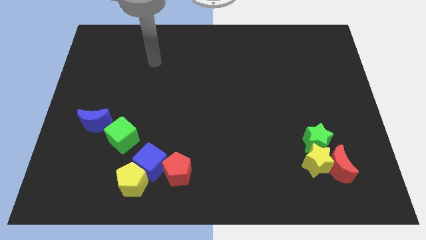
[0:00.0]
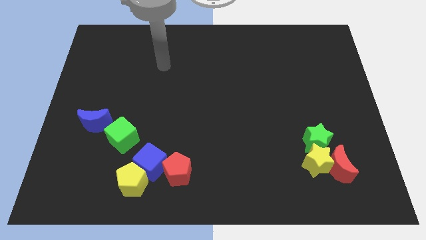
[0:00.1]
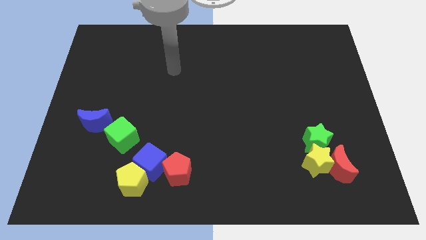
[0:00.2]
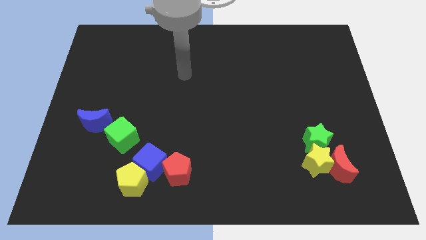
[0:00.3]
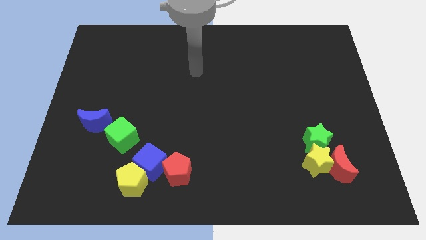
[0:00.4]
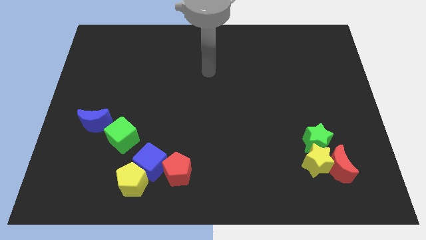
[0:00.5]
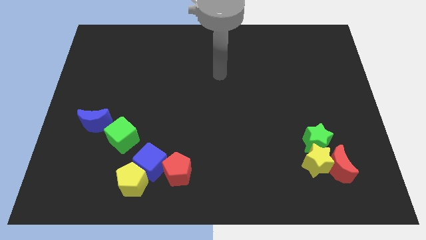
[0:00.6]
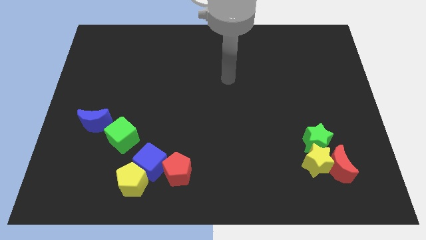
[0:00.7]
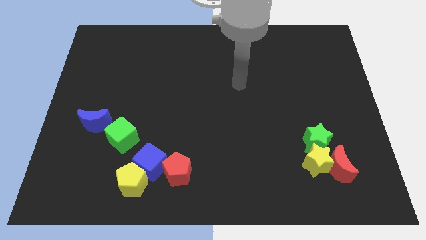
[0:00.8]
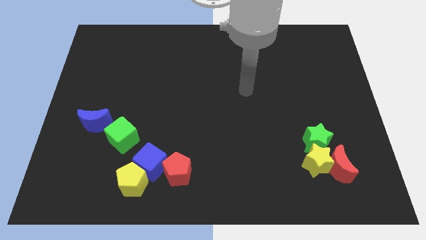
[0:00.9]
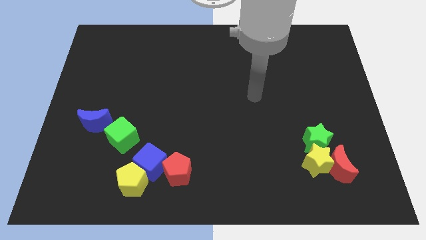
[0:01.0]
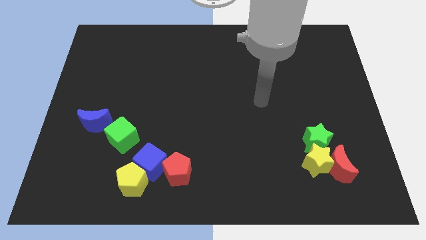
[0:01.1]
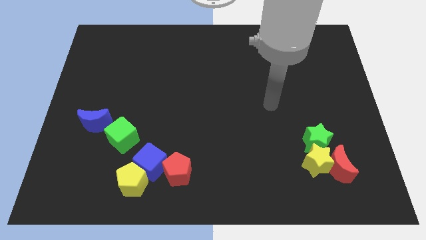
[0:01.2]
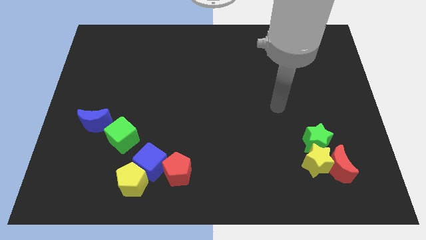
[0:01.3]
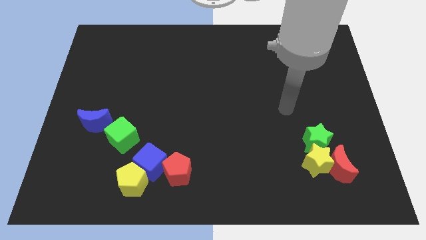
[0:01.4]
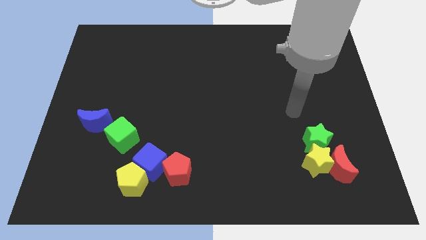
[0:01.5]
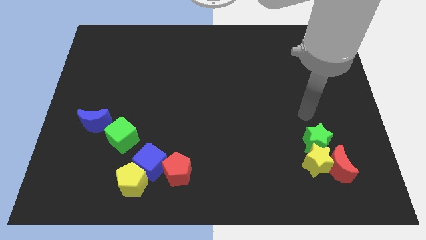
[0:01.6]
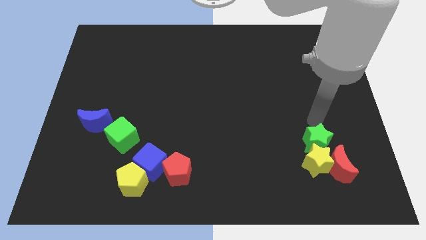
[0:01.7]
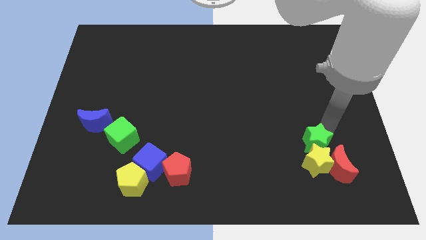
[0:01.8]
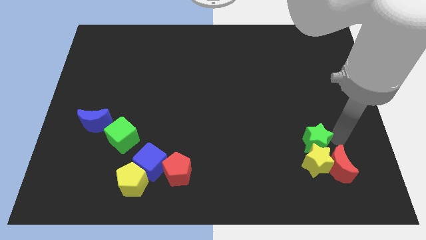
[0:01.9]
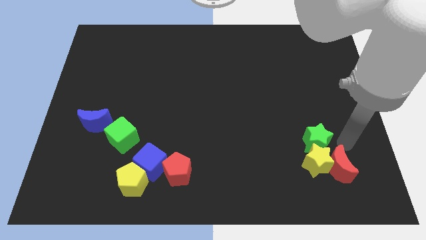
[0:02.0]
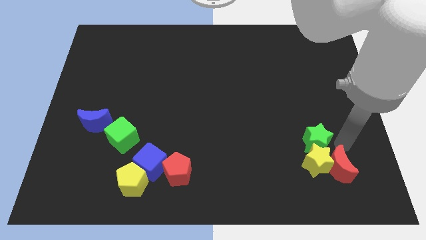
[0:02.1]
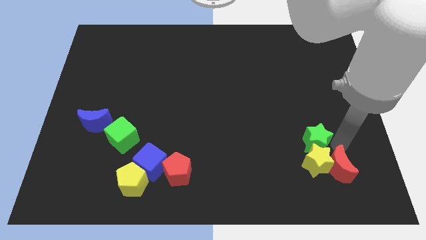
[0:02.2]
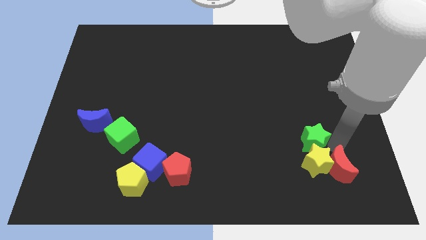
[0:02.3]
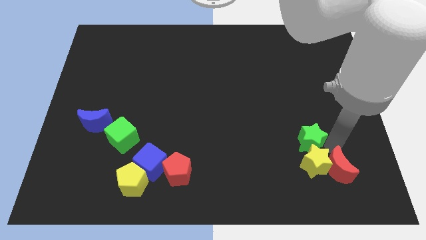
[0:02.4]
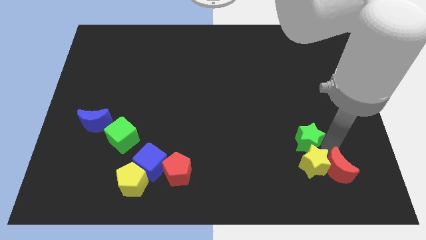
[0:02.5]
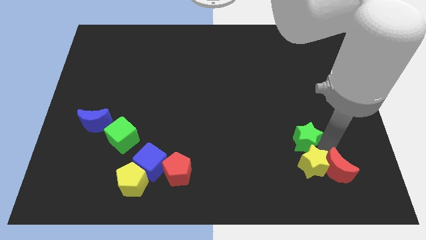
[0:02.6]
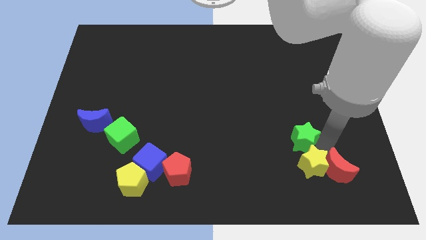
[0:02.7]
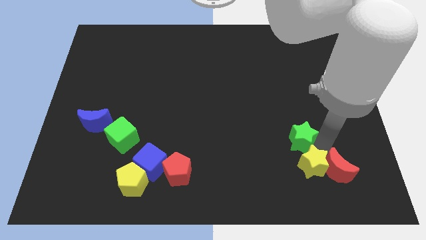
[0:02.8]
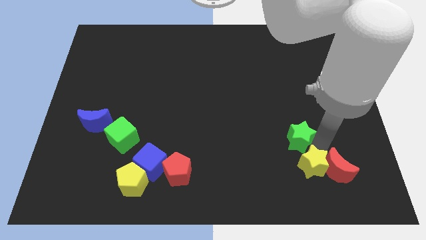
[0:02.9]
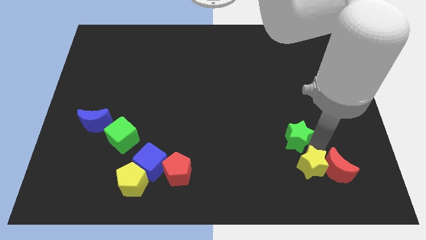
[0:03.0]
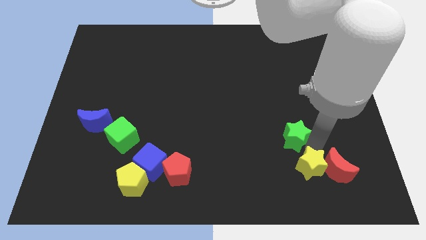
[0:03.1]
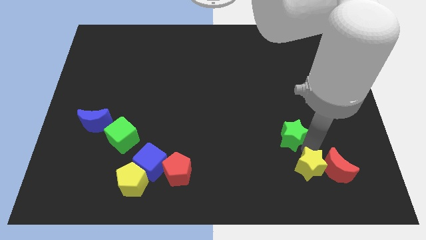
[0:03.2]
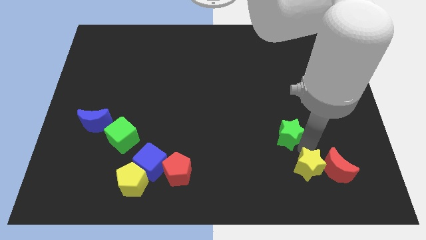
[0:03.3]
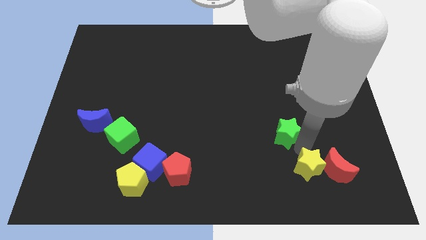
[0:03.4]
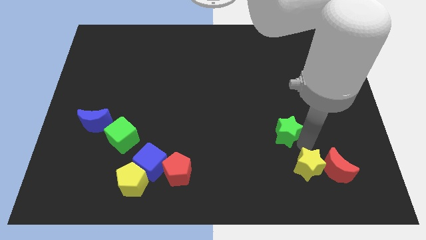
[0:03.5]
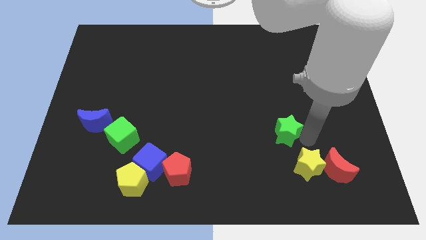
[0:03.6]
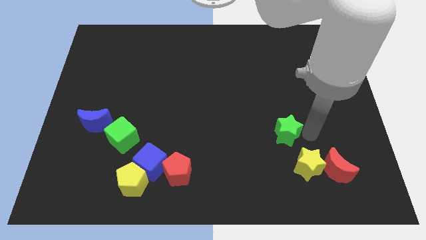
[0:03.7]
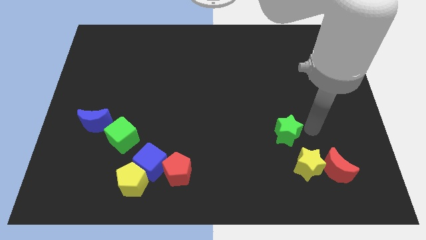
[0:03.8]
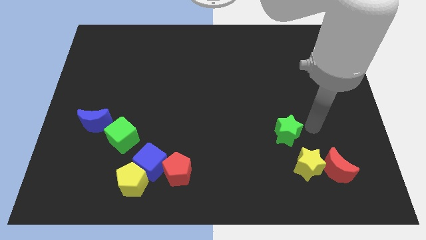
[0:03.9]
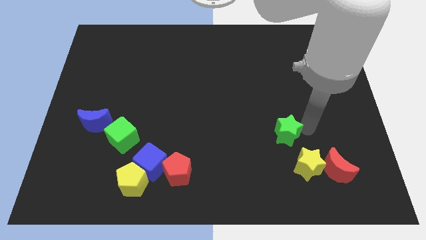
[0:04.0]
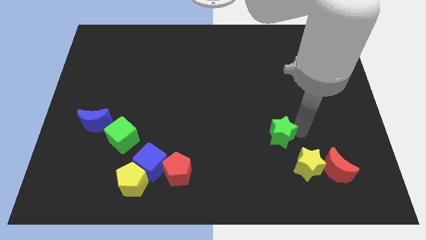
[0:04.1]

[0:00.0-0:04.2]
slightly move the green star left

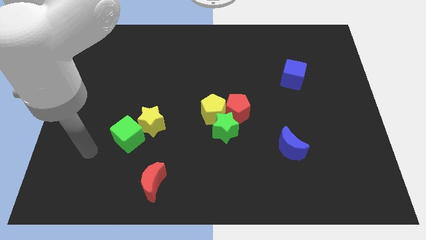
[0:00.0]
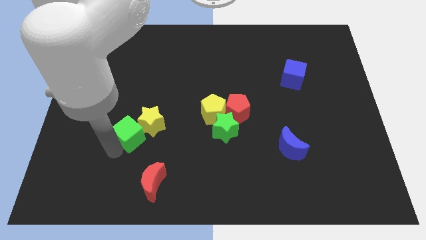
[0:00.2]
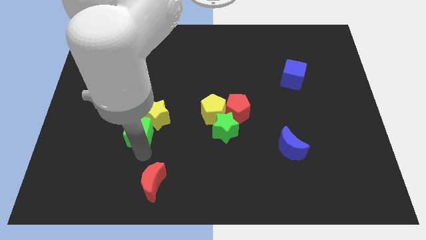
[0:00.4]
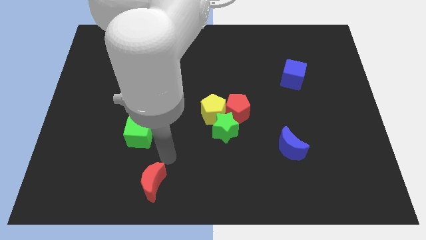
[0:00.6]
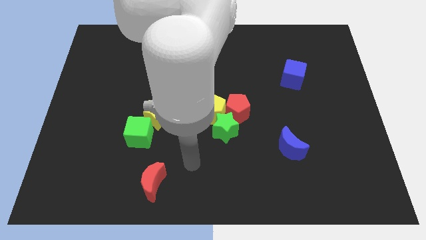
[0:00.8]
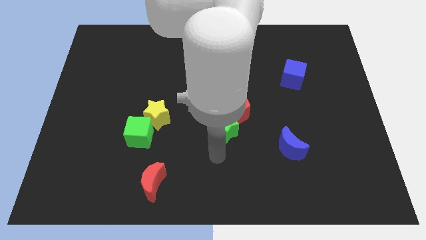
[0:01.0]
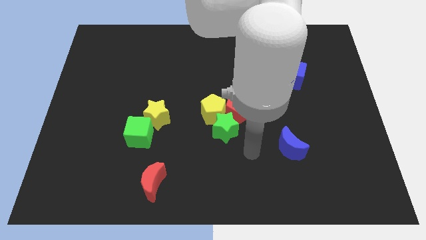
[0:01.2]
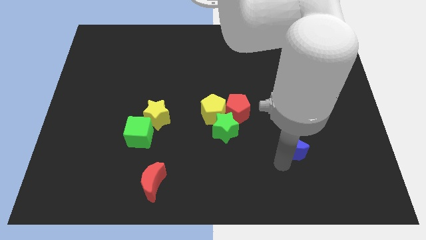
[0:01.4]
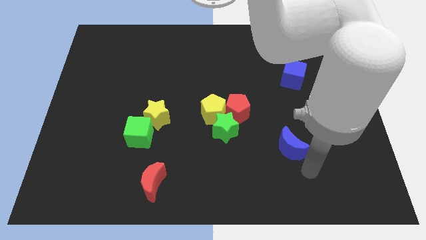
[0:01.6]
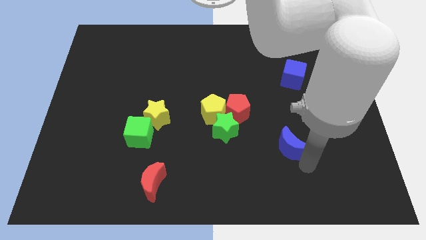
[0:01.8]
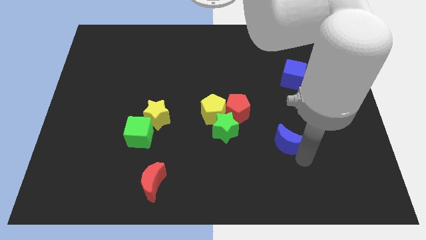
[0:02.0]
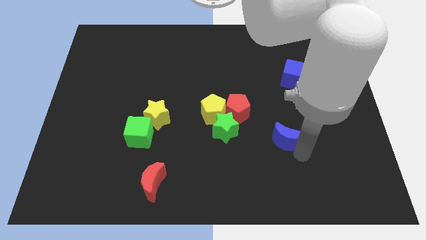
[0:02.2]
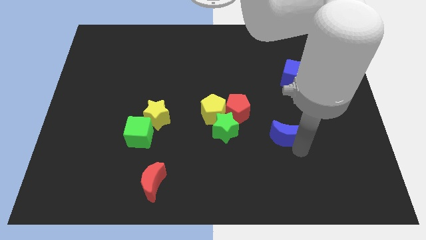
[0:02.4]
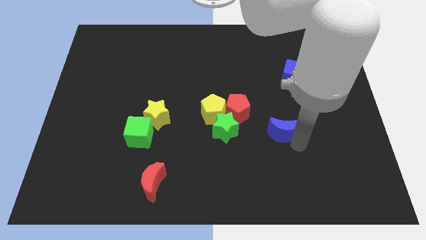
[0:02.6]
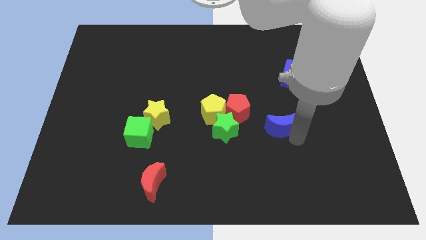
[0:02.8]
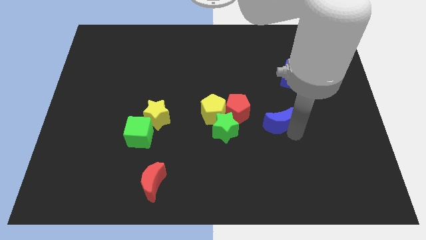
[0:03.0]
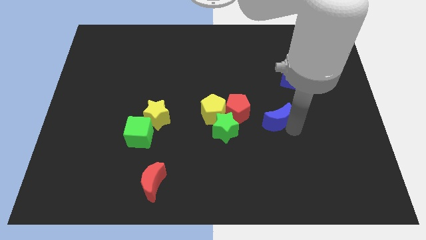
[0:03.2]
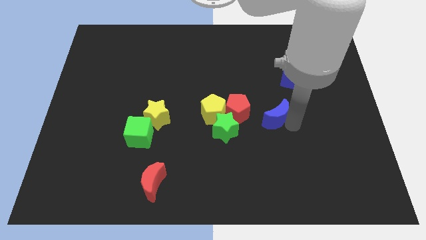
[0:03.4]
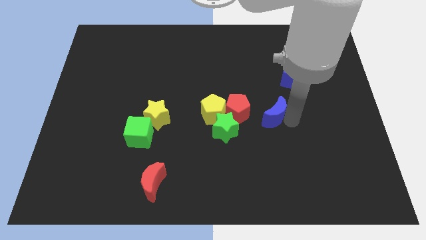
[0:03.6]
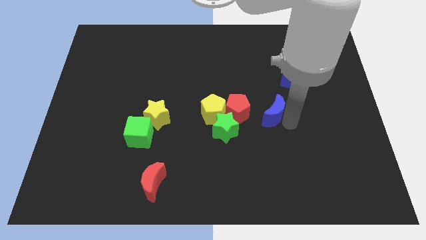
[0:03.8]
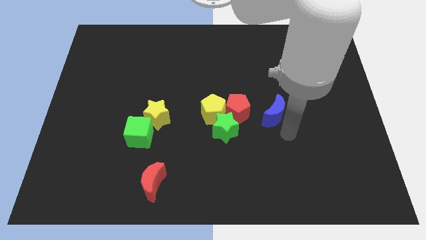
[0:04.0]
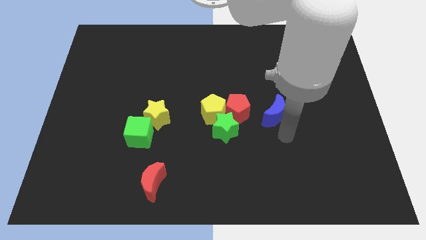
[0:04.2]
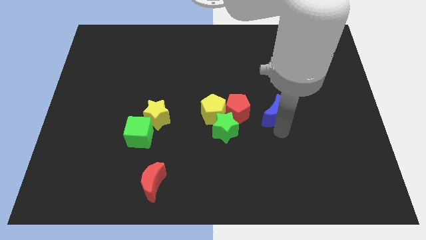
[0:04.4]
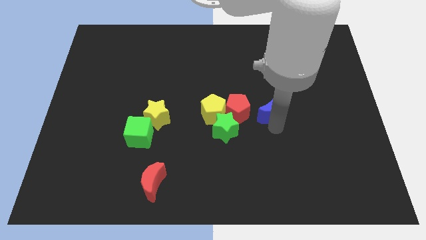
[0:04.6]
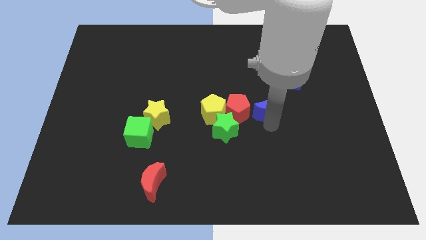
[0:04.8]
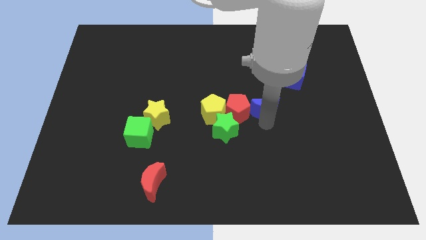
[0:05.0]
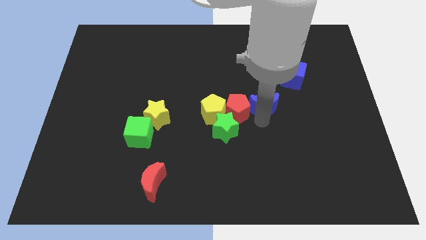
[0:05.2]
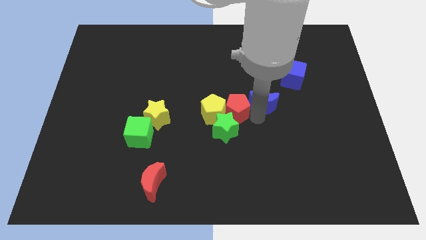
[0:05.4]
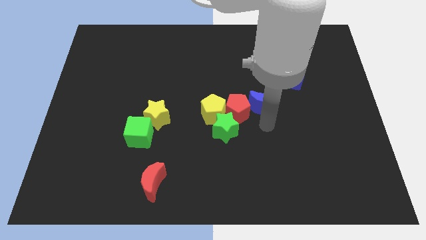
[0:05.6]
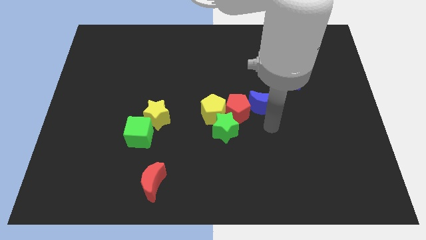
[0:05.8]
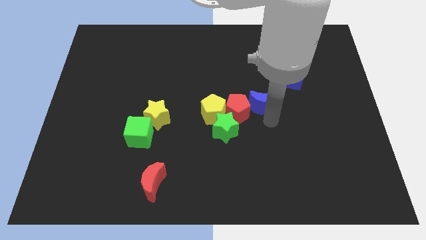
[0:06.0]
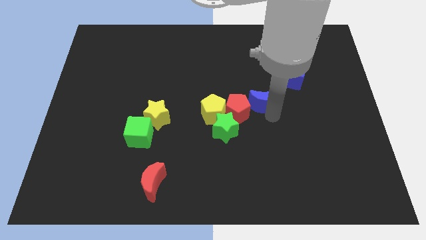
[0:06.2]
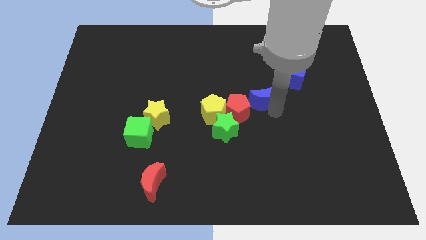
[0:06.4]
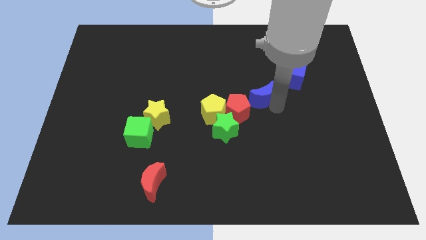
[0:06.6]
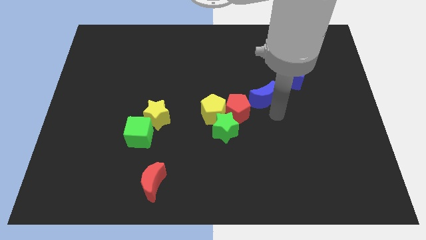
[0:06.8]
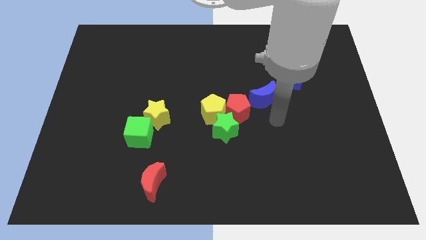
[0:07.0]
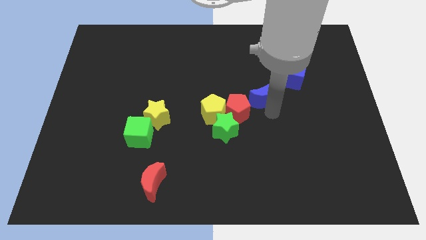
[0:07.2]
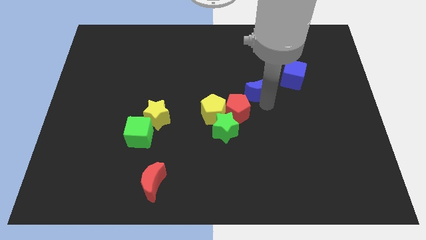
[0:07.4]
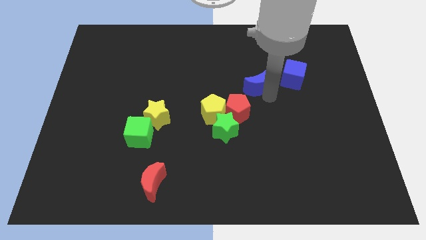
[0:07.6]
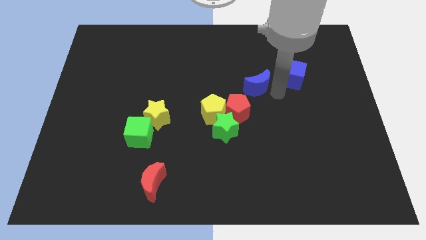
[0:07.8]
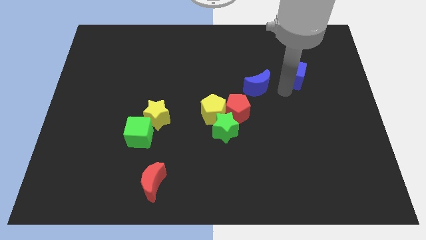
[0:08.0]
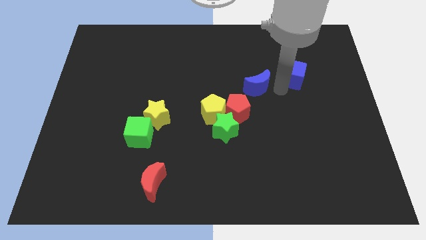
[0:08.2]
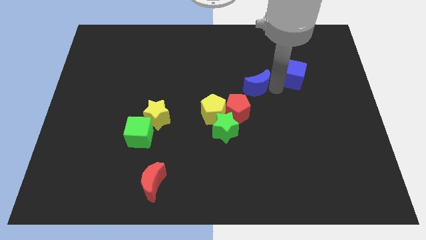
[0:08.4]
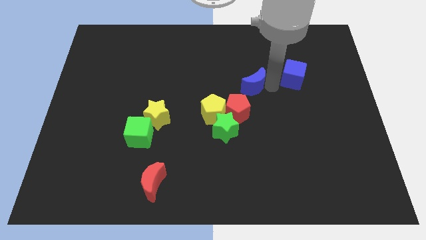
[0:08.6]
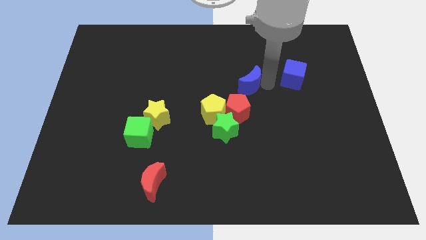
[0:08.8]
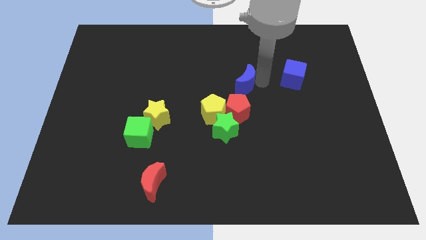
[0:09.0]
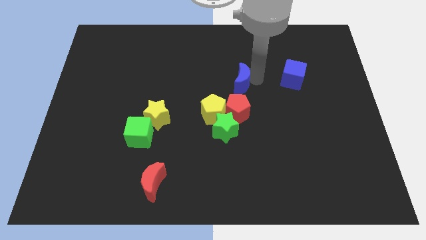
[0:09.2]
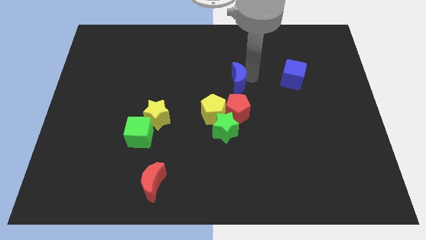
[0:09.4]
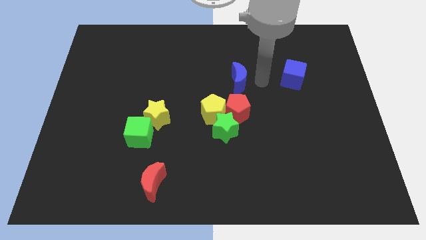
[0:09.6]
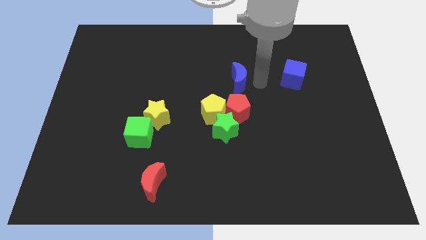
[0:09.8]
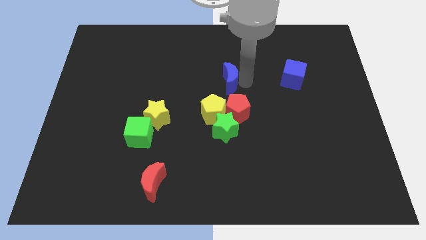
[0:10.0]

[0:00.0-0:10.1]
push the blue moon diagonally up and left
